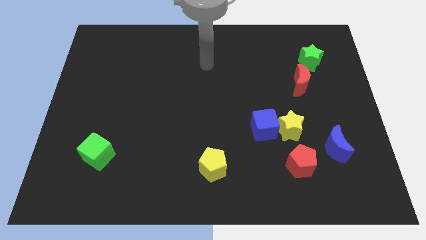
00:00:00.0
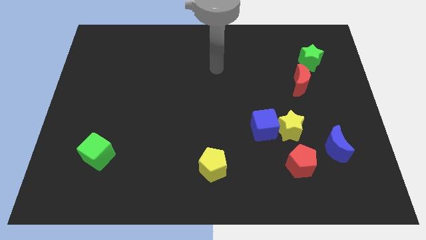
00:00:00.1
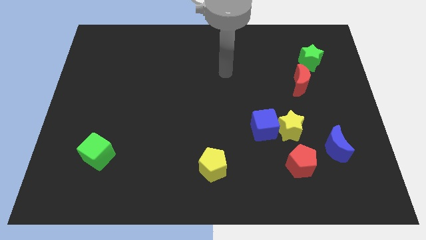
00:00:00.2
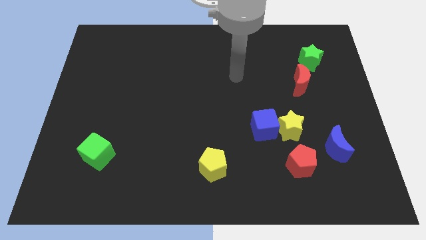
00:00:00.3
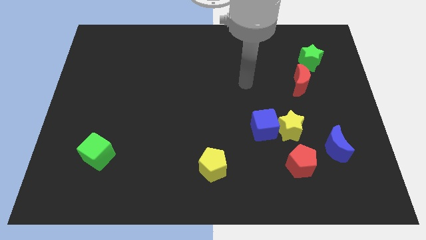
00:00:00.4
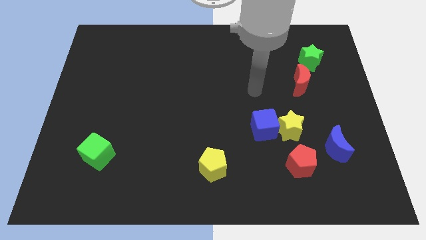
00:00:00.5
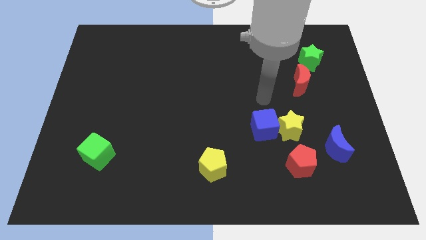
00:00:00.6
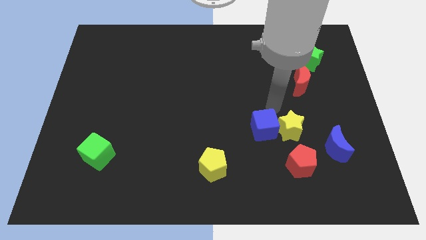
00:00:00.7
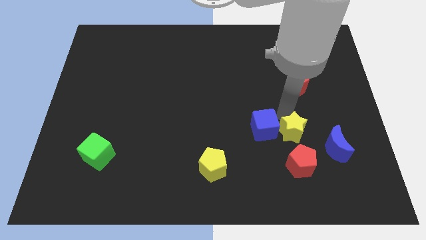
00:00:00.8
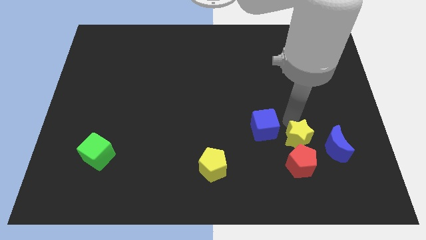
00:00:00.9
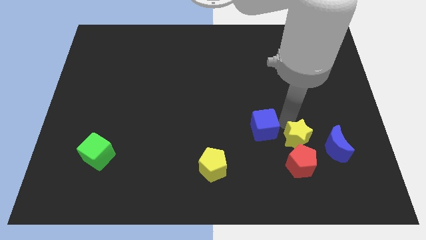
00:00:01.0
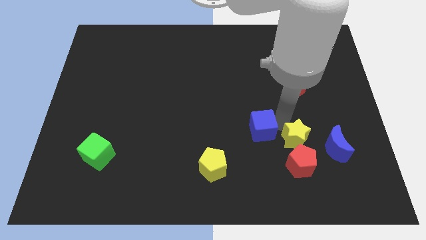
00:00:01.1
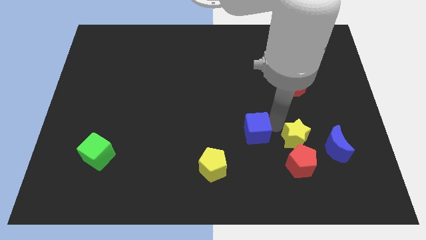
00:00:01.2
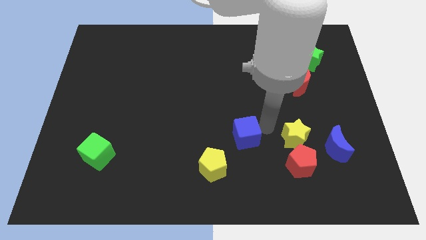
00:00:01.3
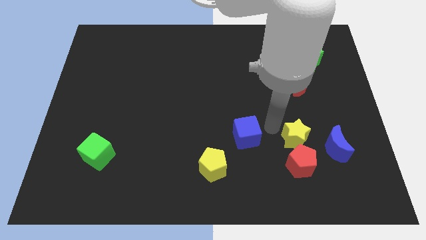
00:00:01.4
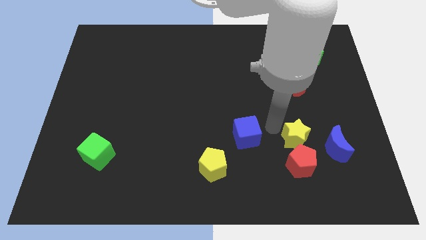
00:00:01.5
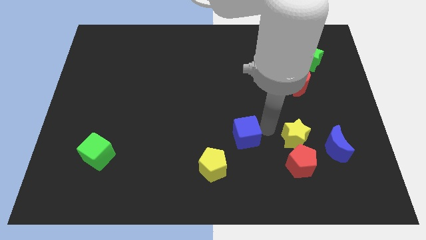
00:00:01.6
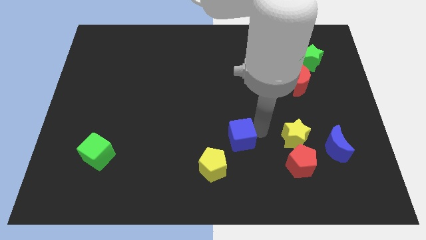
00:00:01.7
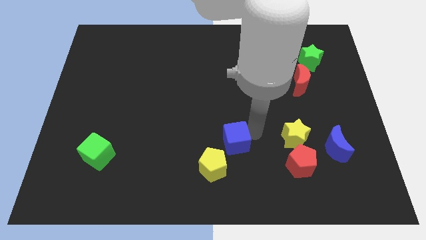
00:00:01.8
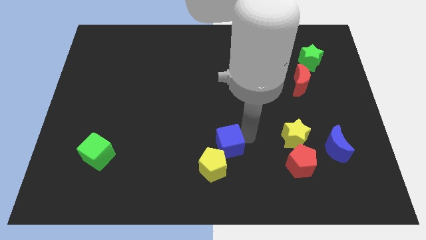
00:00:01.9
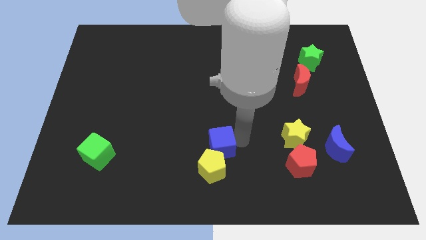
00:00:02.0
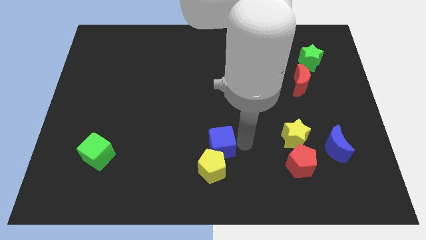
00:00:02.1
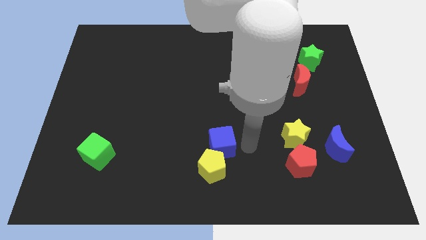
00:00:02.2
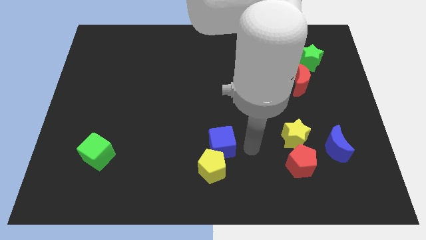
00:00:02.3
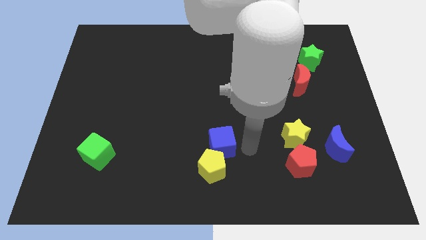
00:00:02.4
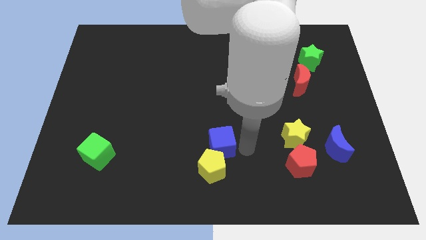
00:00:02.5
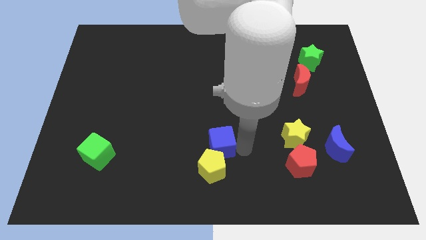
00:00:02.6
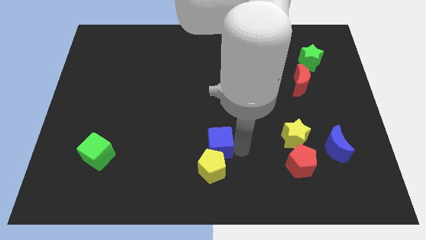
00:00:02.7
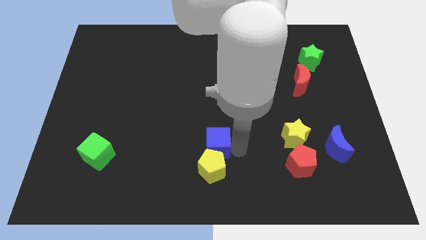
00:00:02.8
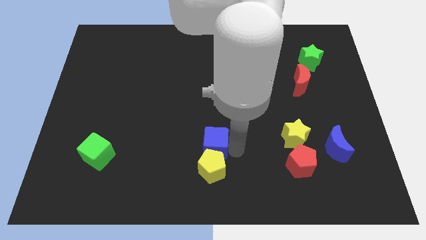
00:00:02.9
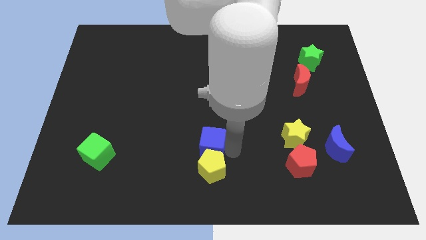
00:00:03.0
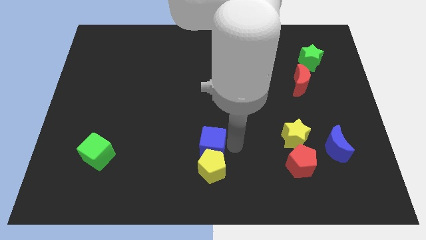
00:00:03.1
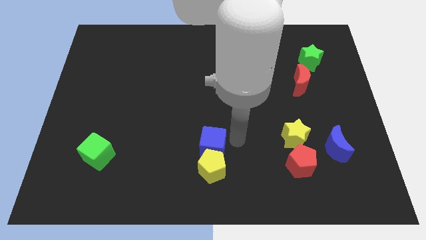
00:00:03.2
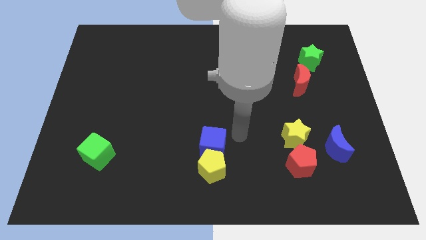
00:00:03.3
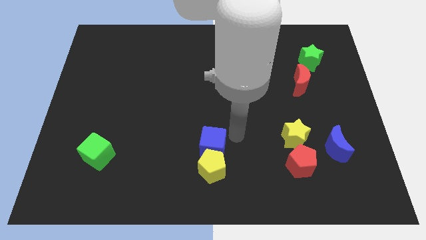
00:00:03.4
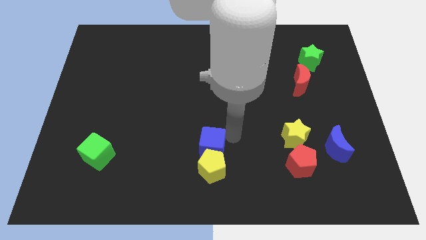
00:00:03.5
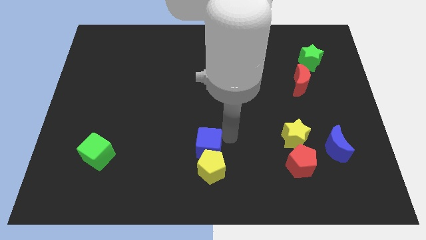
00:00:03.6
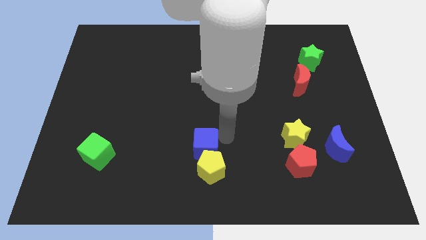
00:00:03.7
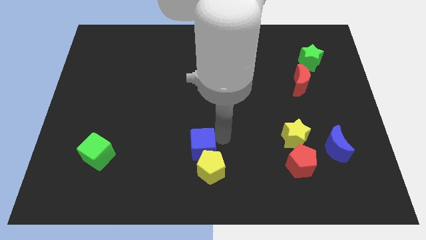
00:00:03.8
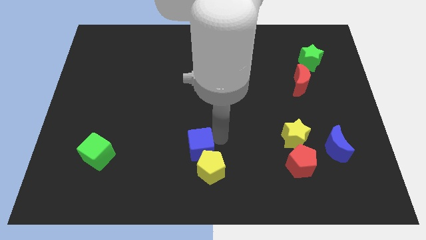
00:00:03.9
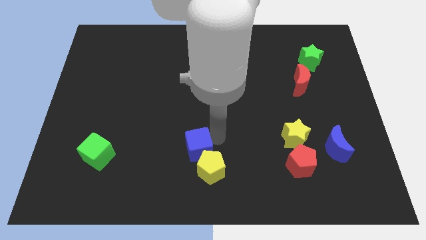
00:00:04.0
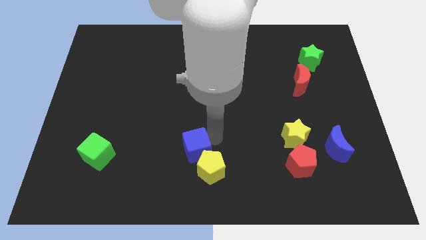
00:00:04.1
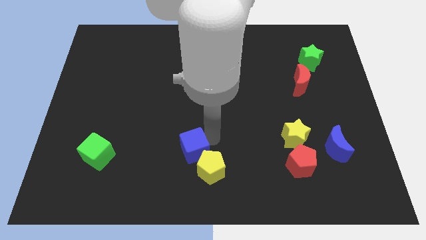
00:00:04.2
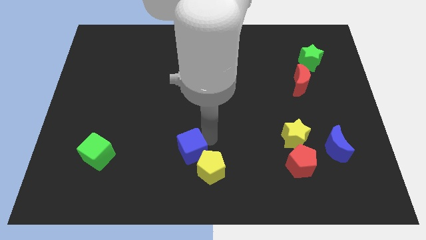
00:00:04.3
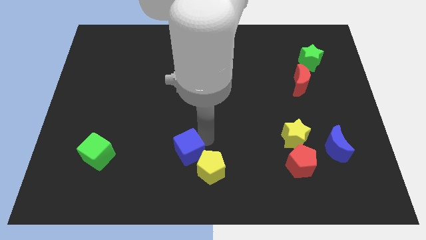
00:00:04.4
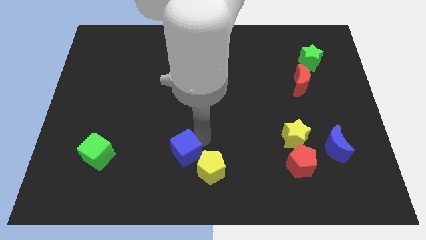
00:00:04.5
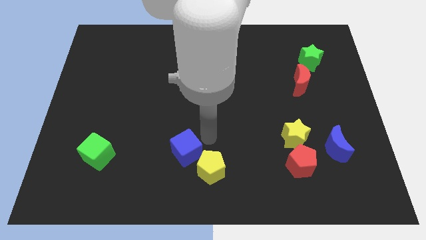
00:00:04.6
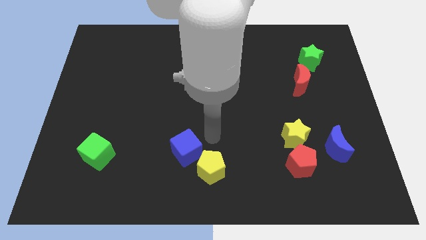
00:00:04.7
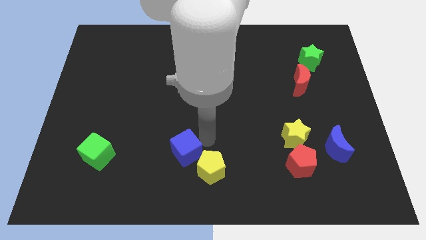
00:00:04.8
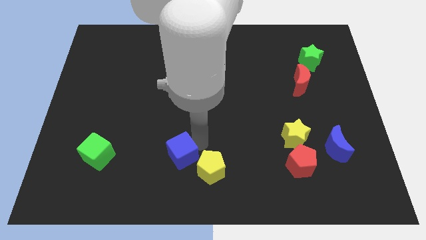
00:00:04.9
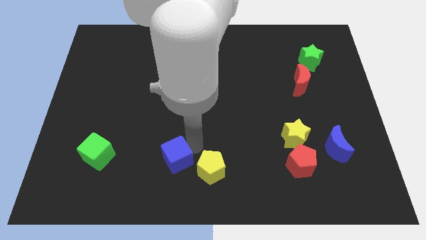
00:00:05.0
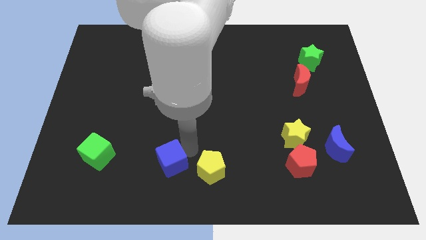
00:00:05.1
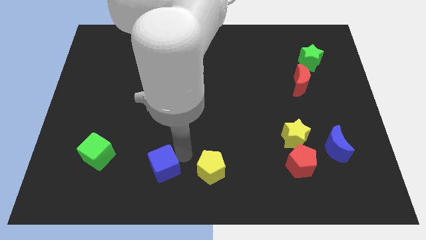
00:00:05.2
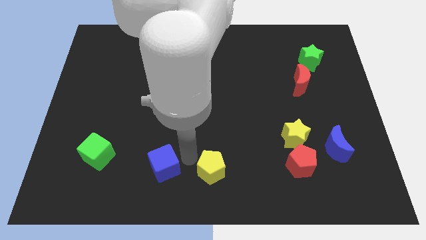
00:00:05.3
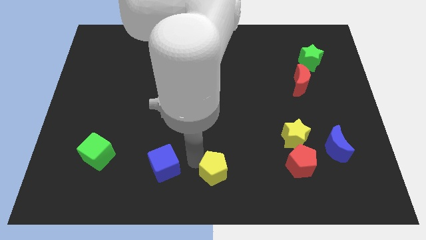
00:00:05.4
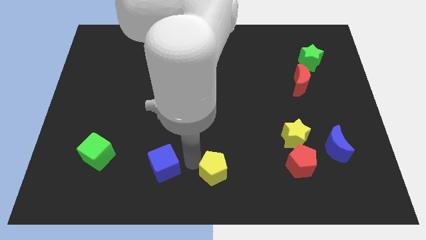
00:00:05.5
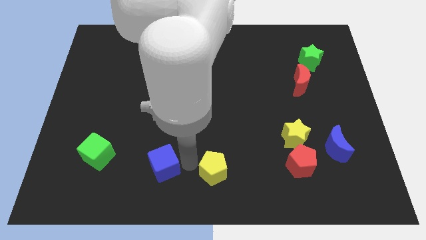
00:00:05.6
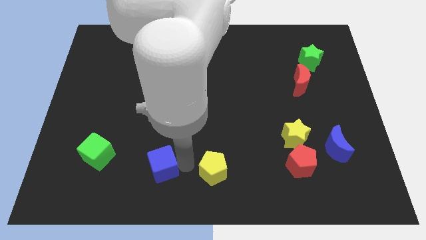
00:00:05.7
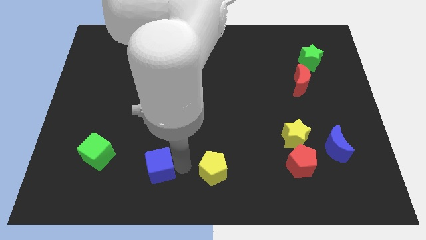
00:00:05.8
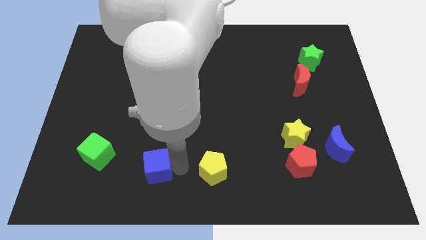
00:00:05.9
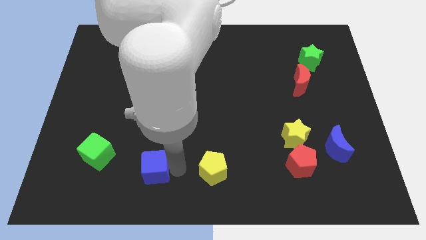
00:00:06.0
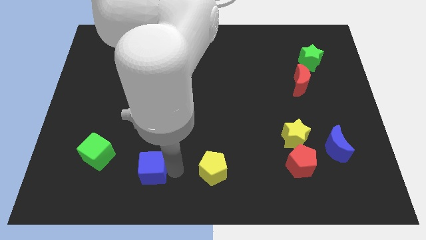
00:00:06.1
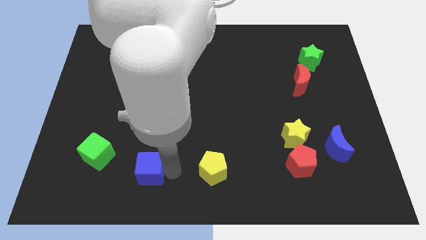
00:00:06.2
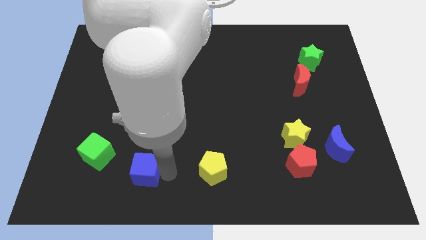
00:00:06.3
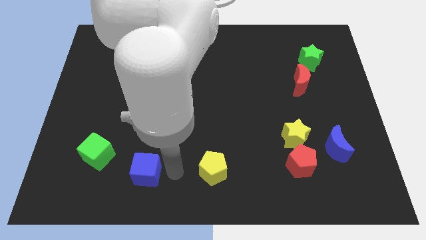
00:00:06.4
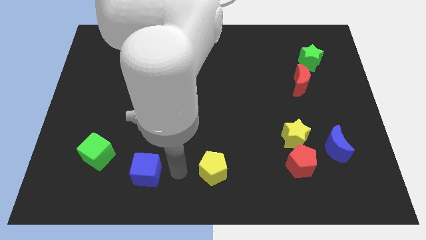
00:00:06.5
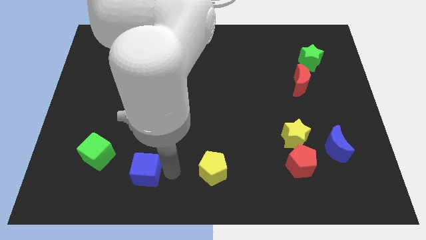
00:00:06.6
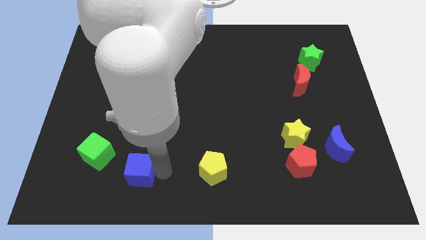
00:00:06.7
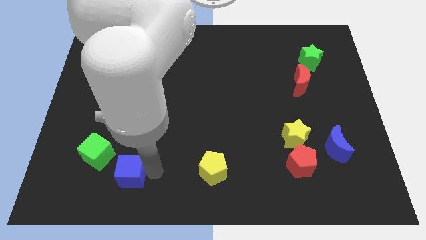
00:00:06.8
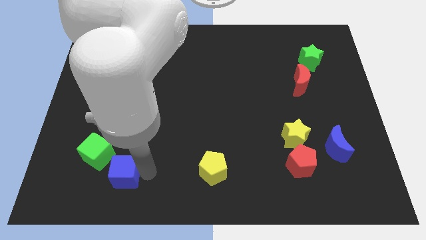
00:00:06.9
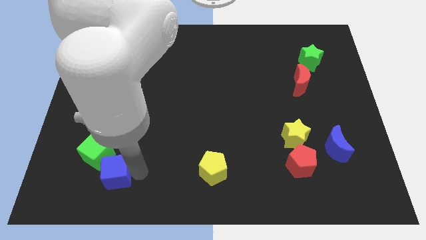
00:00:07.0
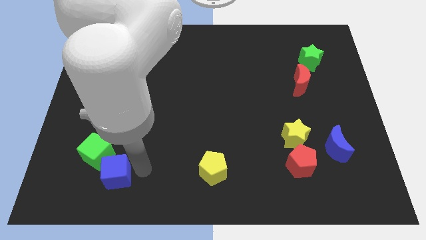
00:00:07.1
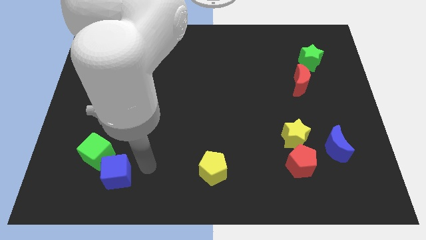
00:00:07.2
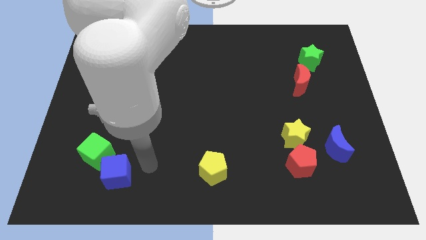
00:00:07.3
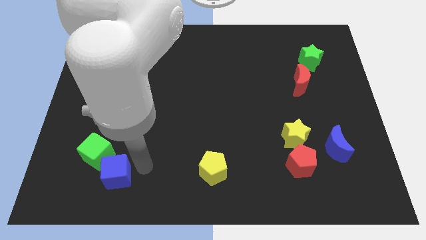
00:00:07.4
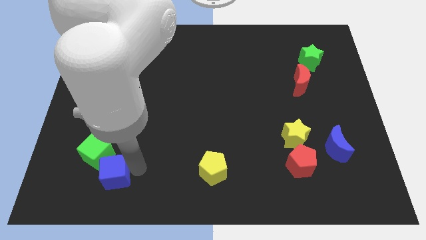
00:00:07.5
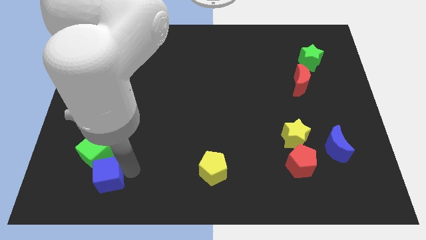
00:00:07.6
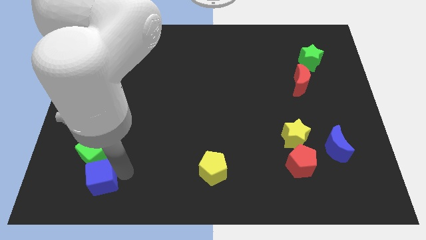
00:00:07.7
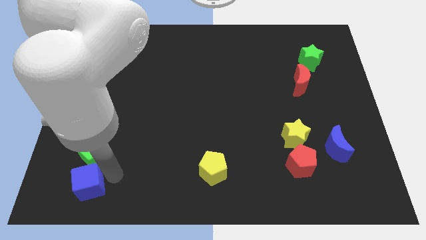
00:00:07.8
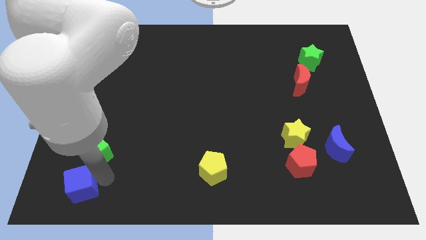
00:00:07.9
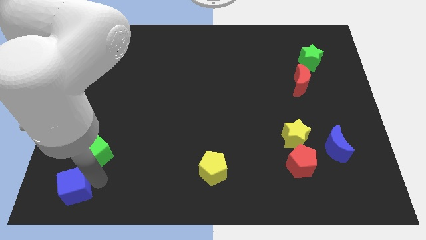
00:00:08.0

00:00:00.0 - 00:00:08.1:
slide the blue cube to the bottom left corner
